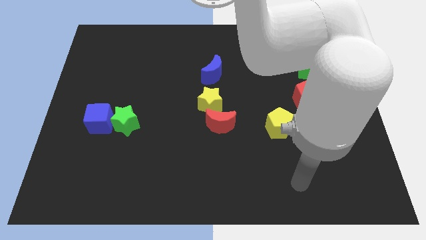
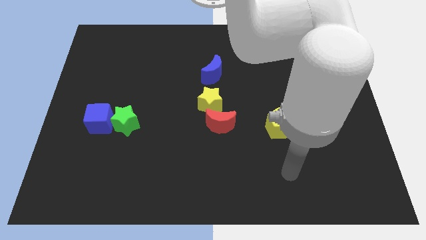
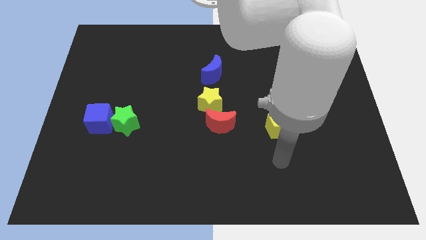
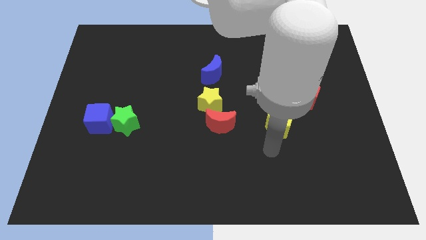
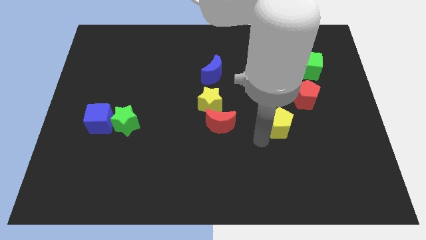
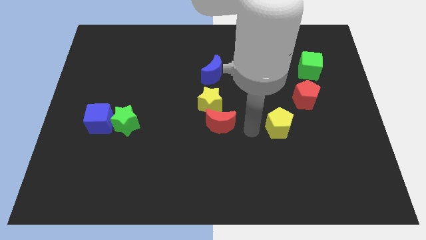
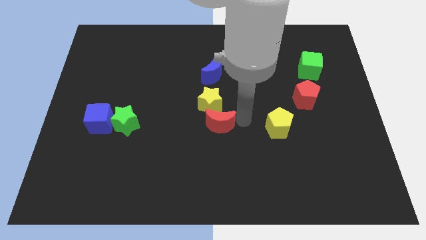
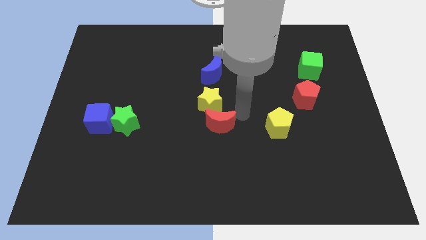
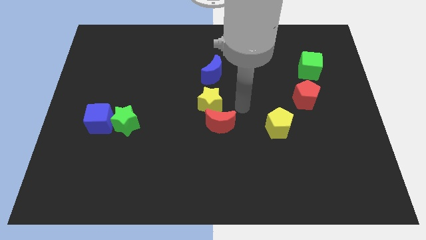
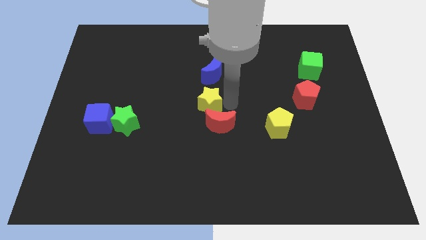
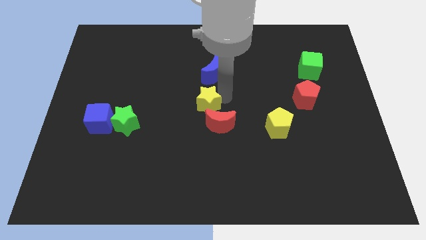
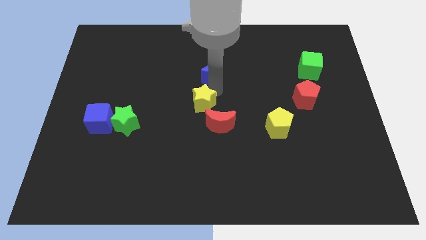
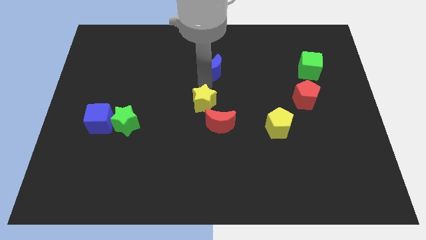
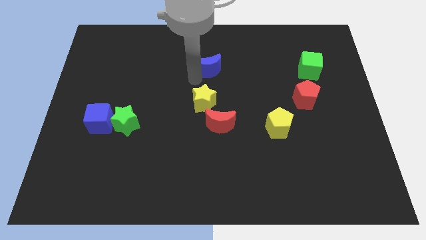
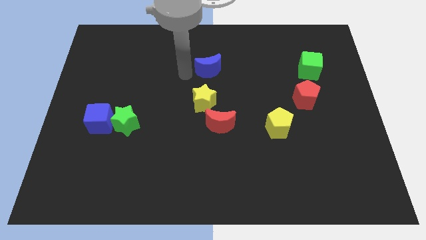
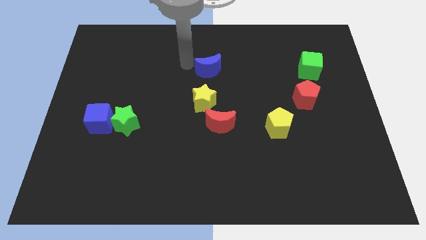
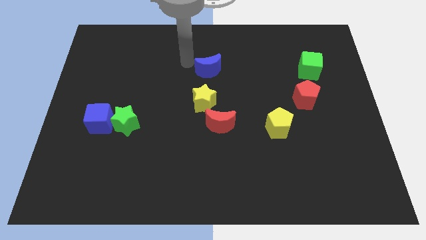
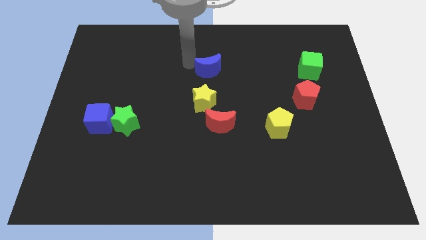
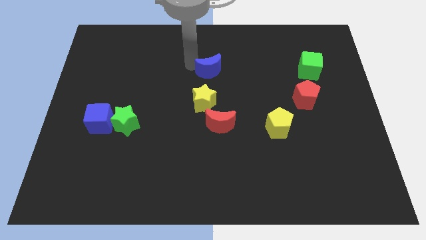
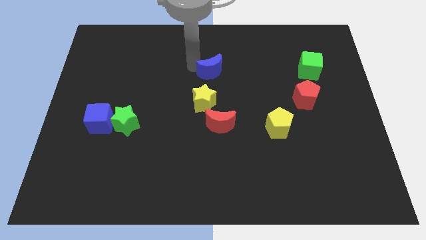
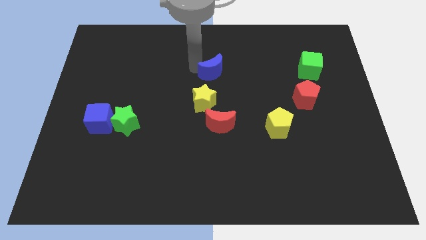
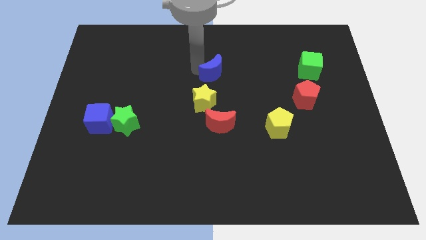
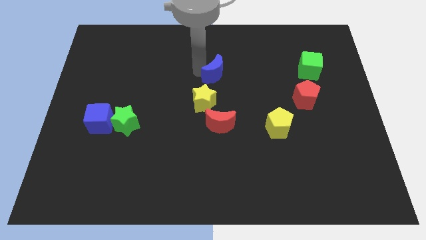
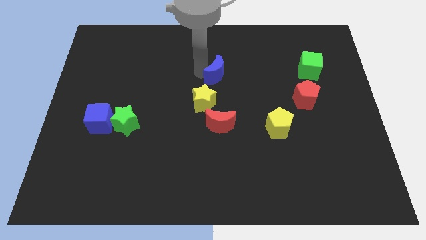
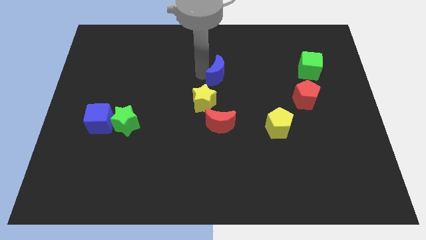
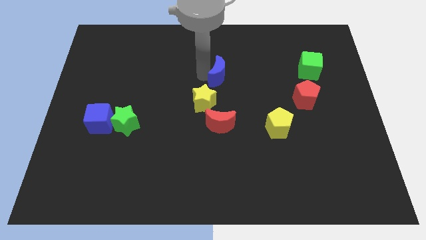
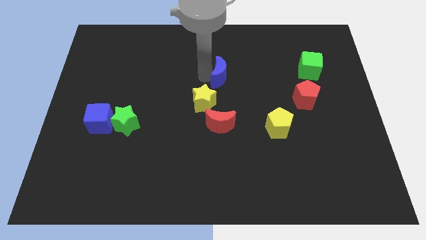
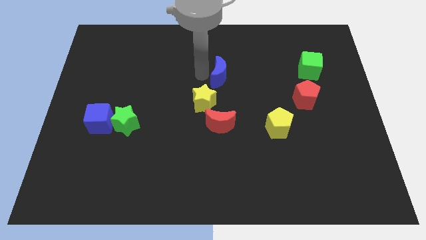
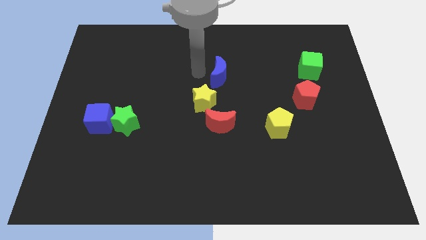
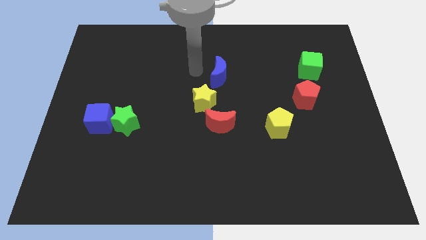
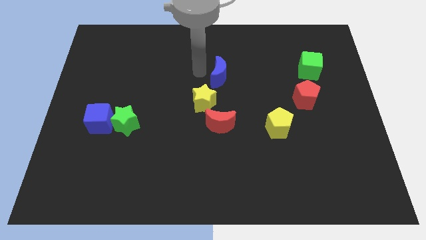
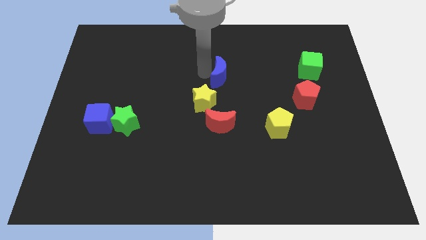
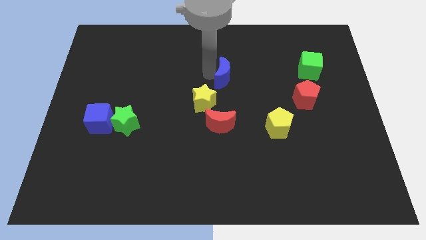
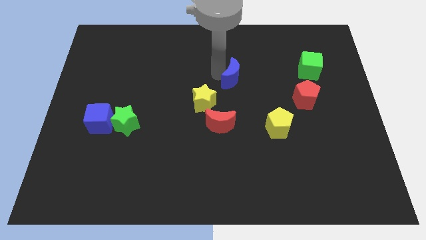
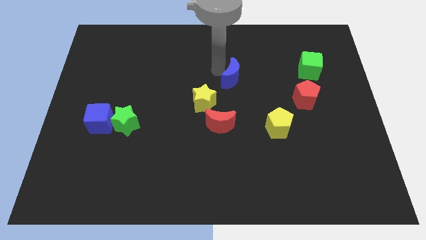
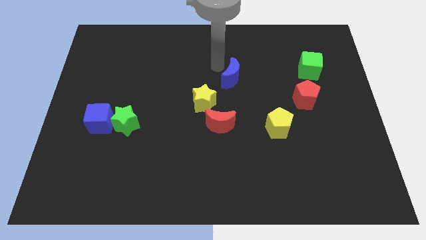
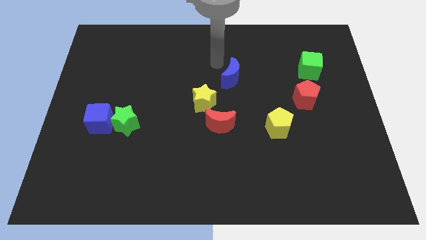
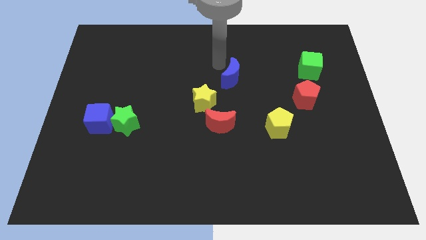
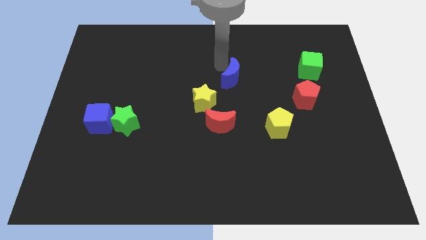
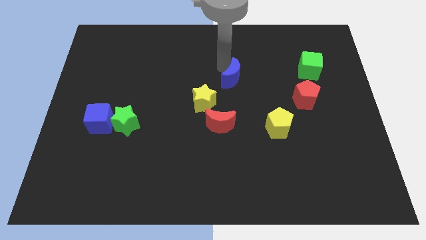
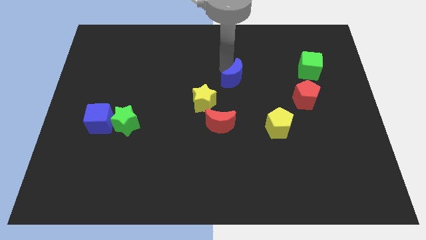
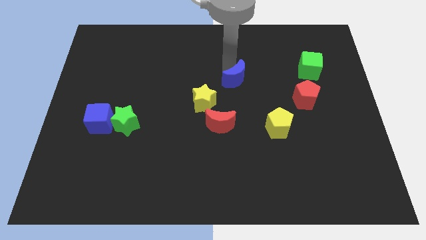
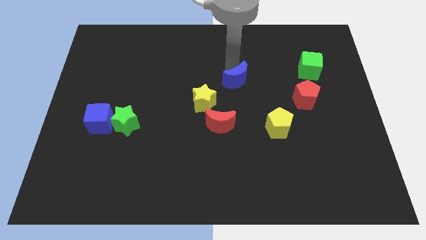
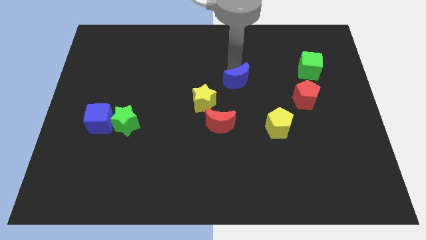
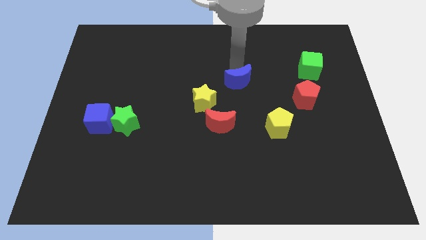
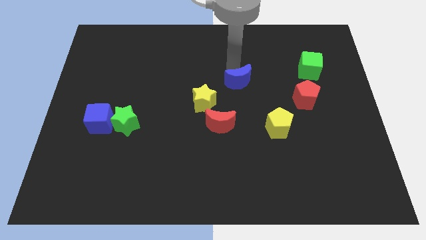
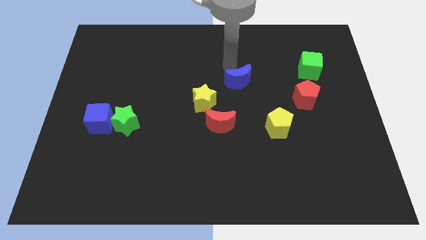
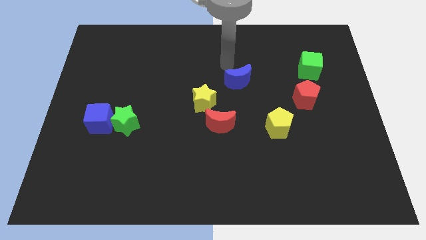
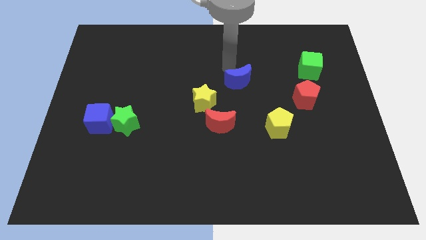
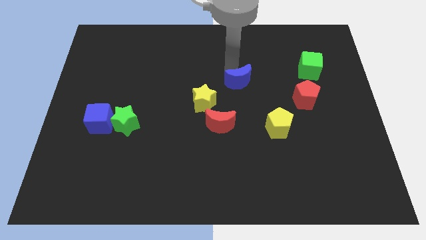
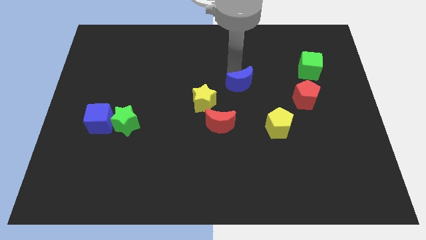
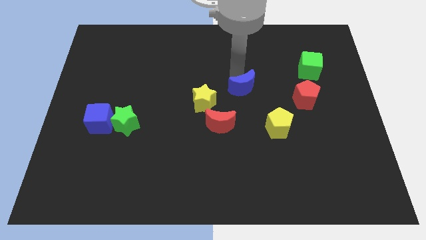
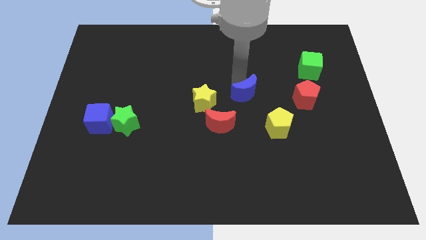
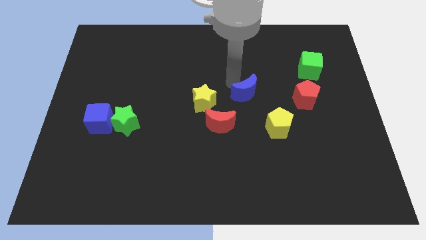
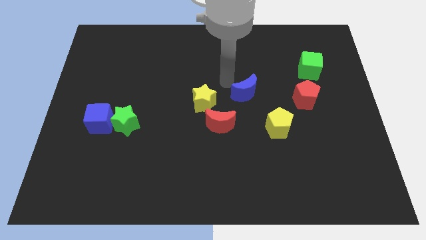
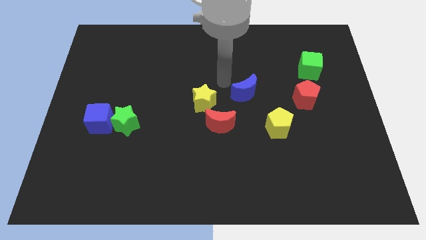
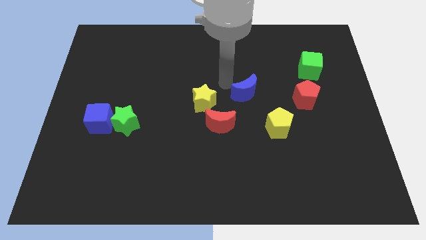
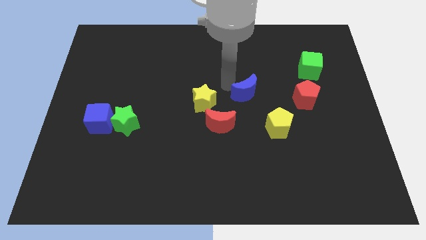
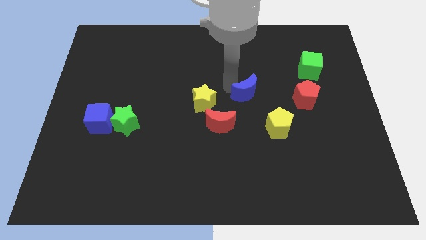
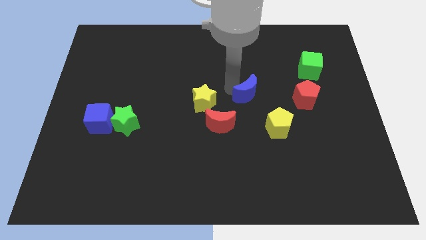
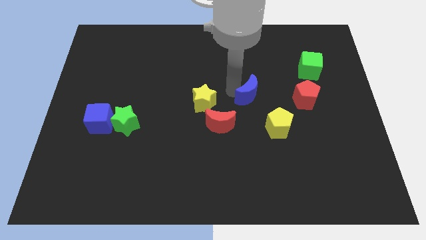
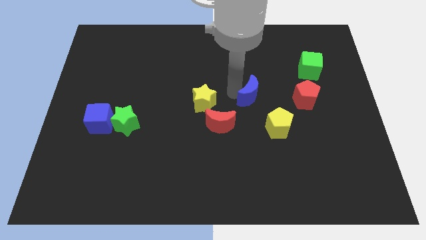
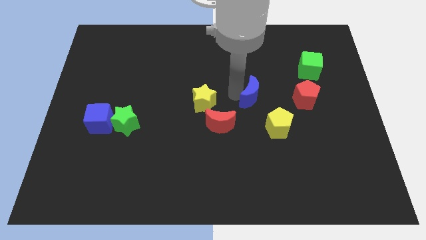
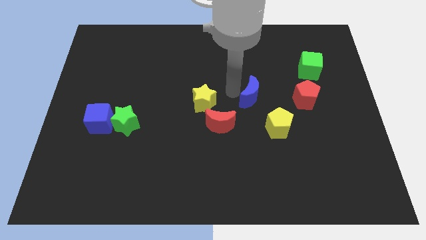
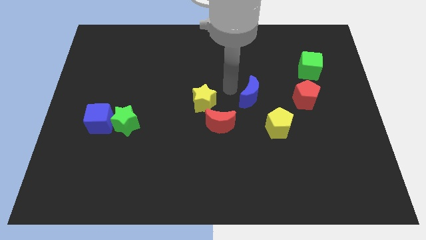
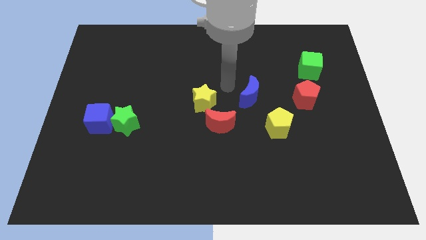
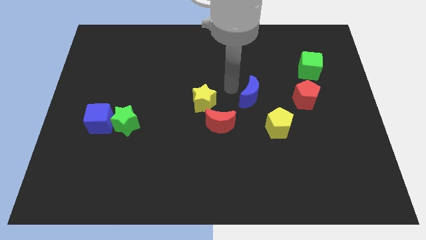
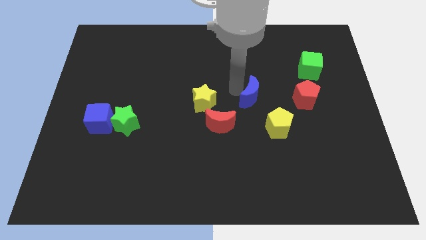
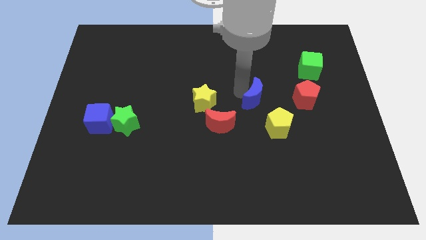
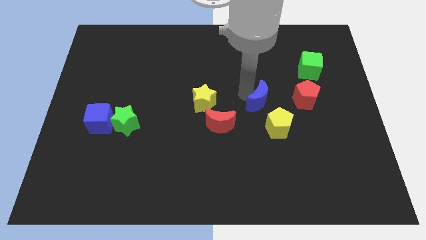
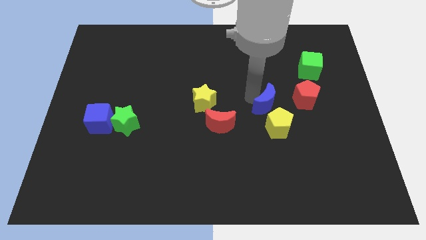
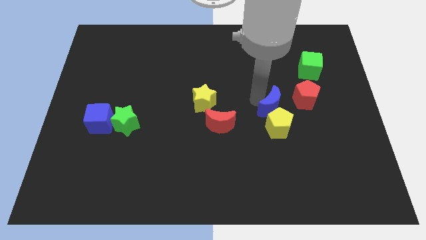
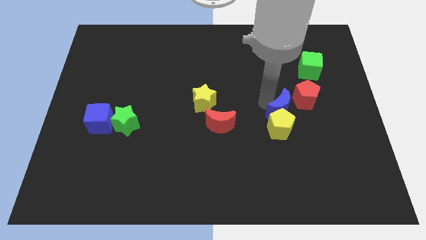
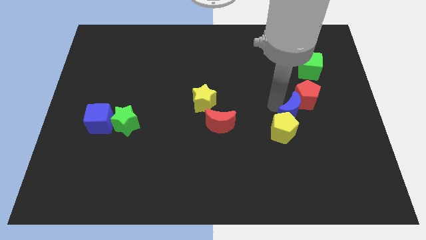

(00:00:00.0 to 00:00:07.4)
slide the blue moon down and to the right diagonally

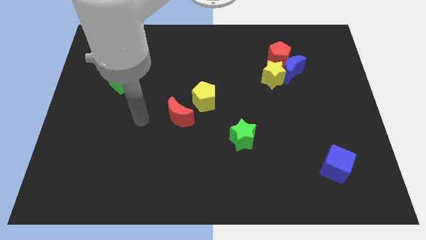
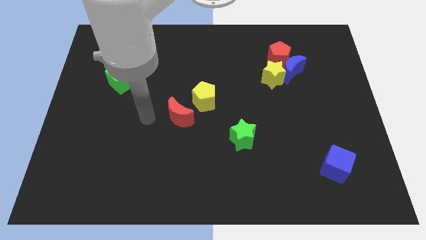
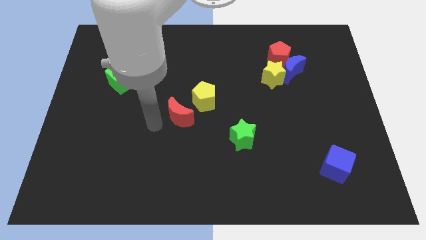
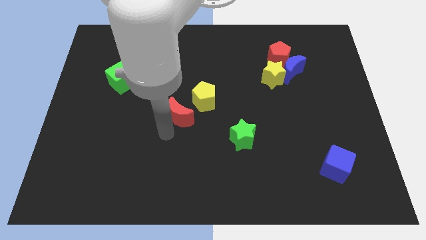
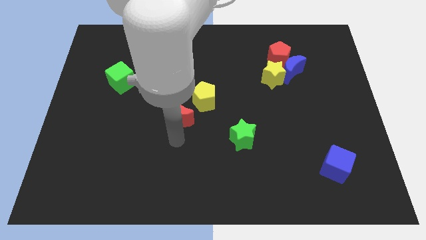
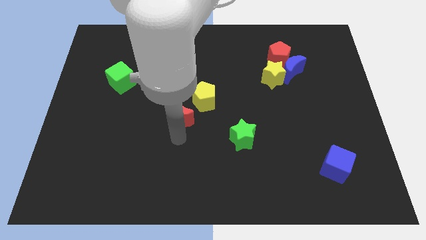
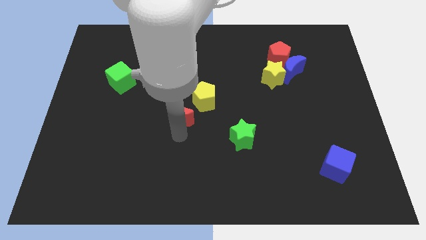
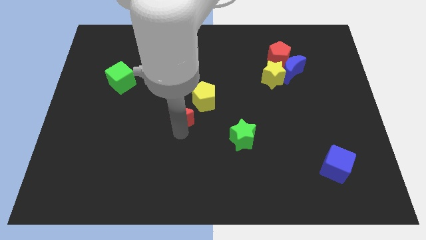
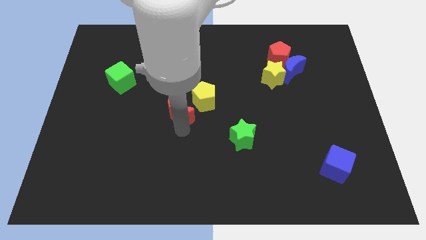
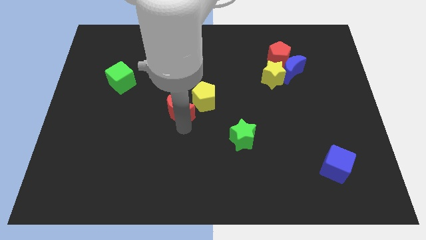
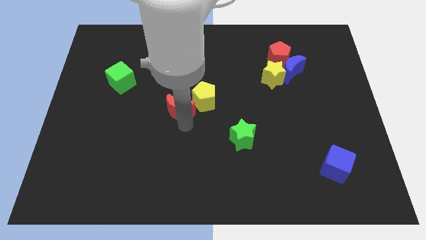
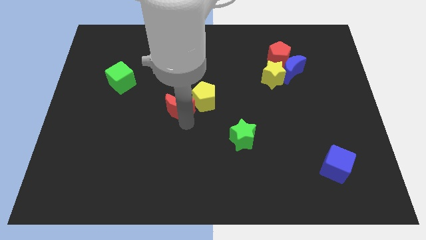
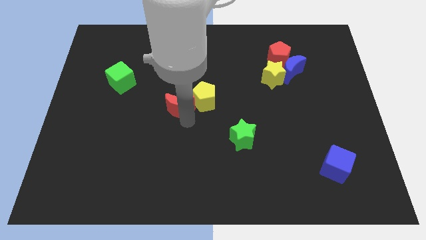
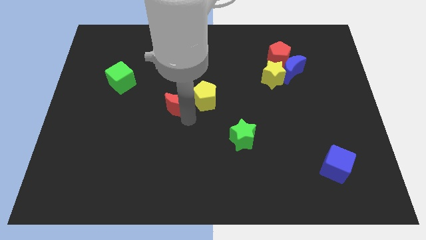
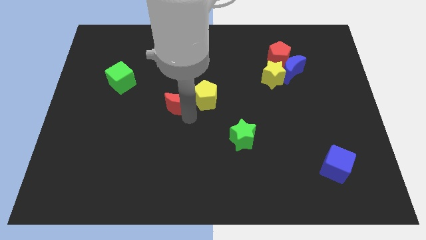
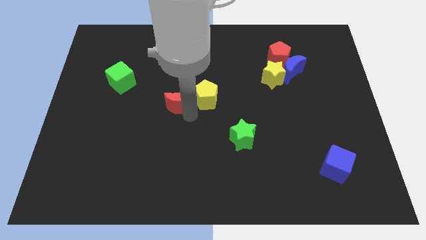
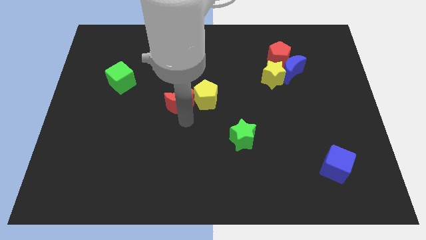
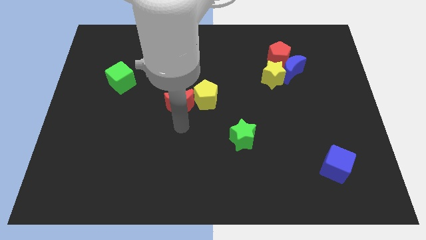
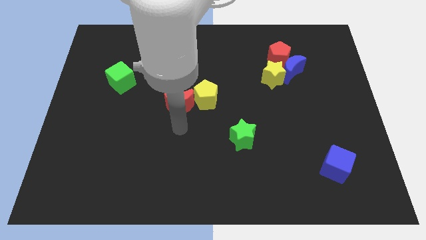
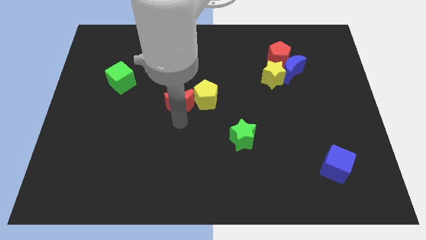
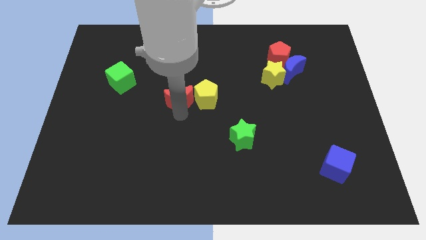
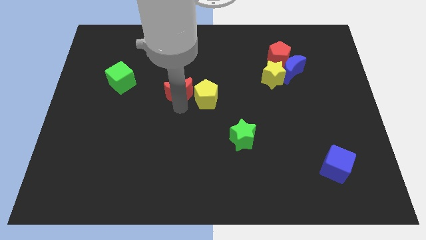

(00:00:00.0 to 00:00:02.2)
slightly slide the red moon upwards
